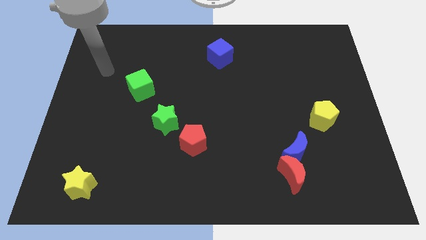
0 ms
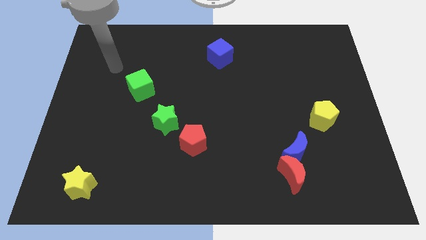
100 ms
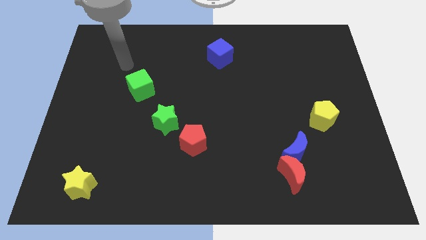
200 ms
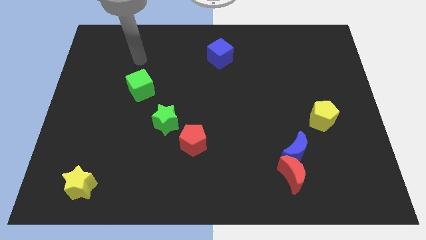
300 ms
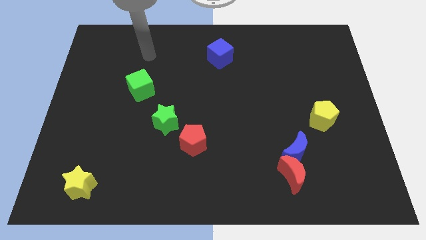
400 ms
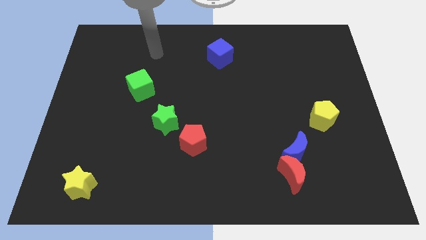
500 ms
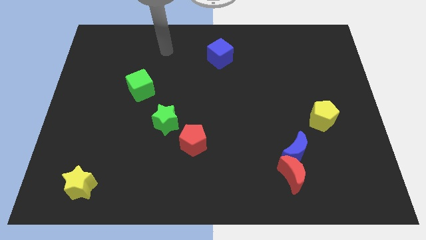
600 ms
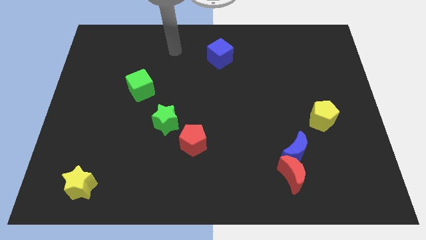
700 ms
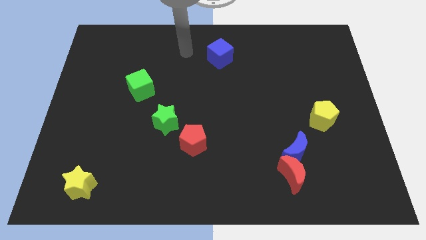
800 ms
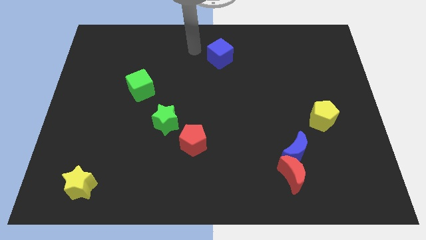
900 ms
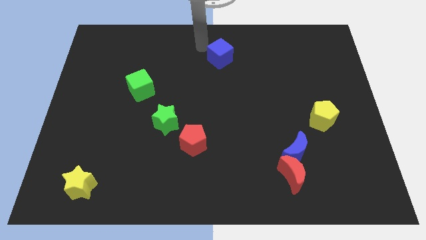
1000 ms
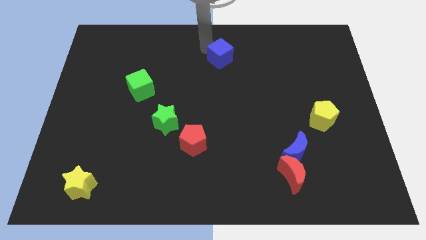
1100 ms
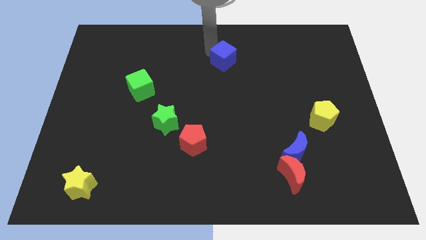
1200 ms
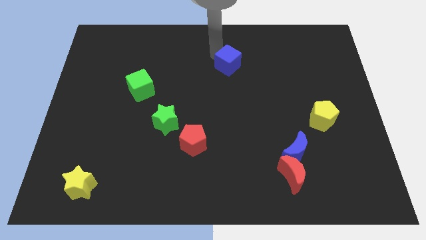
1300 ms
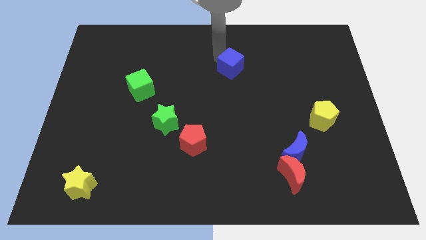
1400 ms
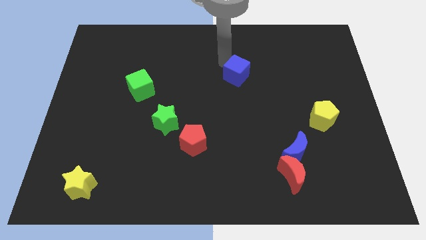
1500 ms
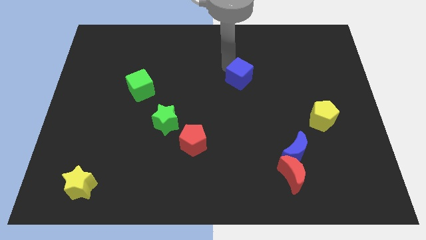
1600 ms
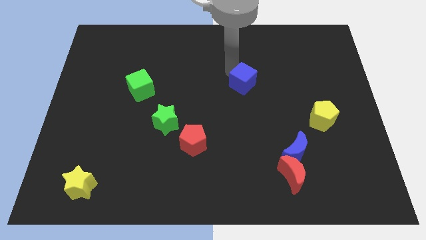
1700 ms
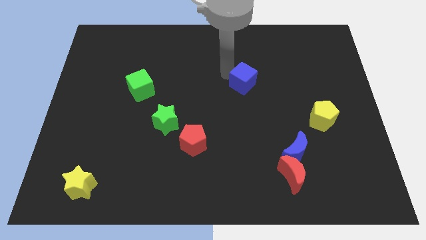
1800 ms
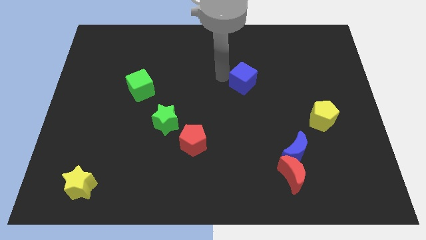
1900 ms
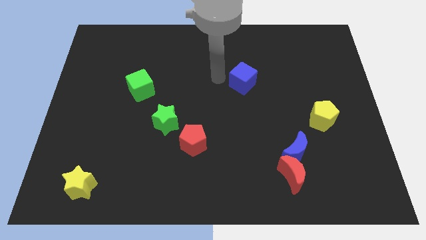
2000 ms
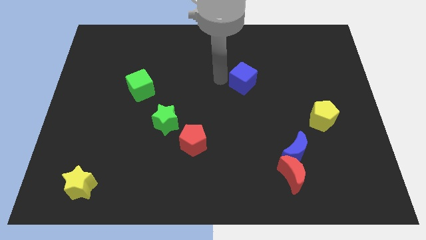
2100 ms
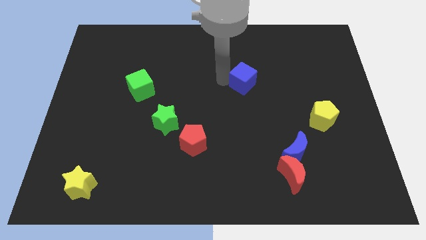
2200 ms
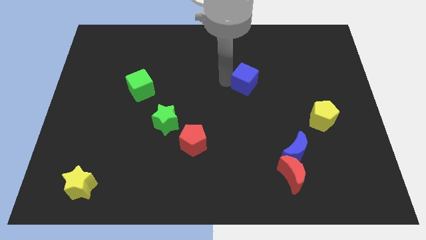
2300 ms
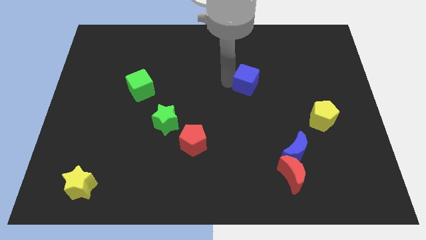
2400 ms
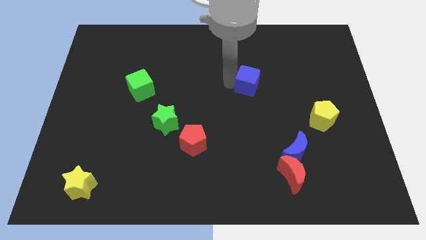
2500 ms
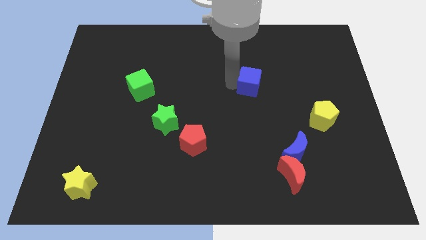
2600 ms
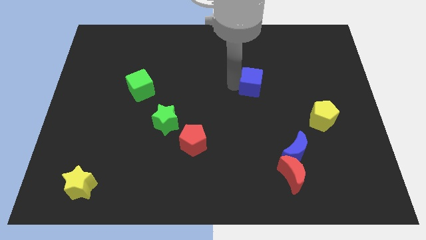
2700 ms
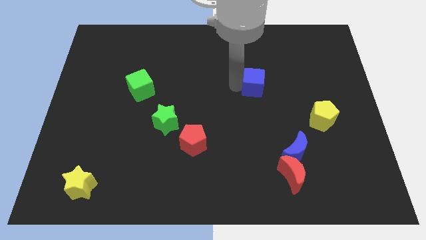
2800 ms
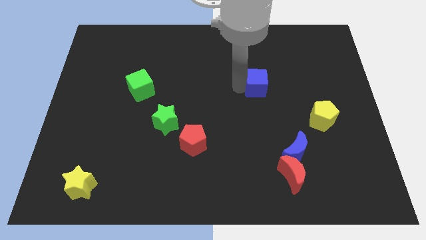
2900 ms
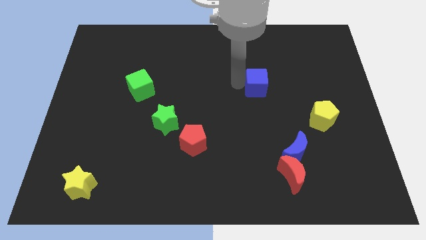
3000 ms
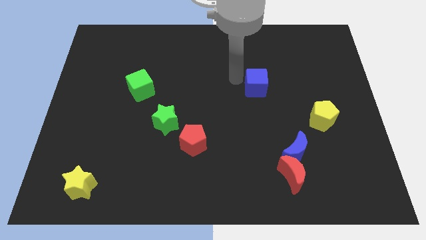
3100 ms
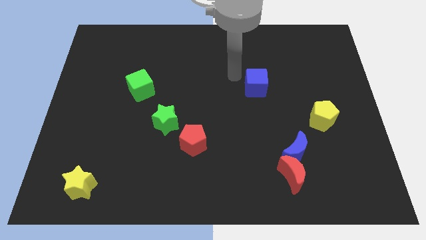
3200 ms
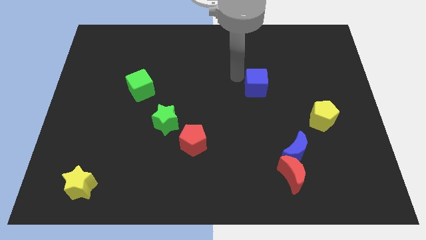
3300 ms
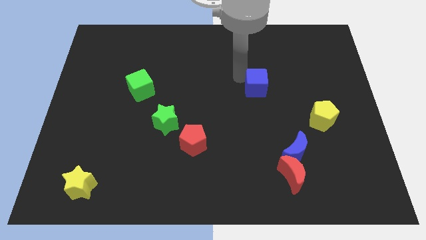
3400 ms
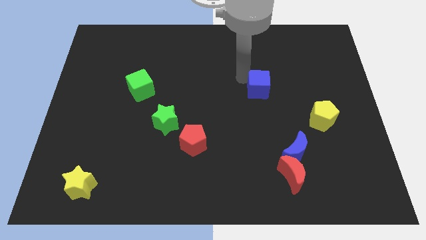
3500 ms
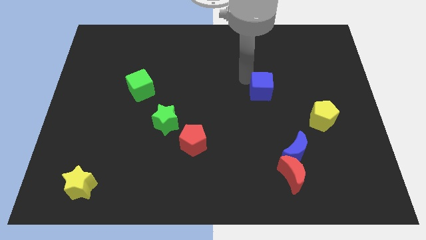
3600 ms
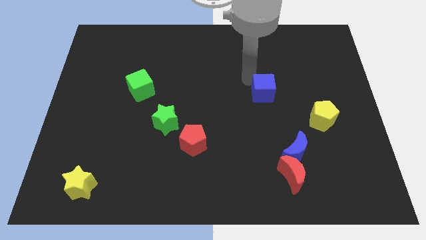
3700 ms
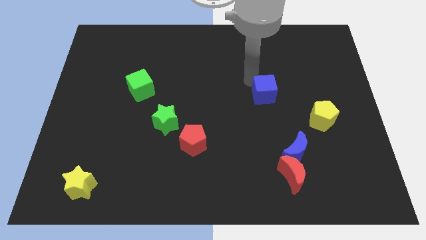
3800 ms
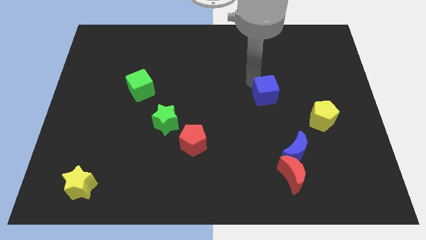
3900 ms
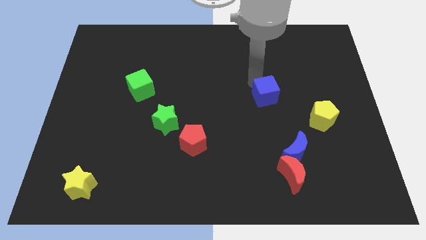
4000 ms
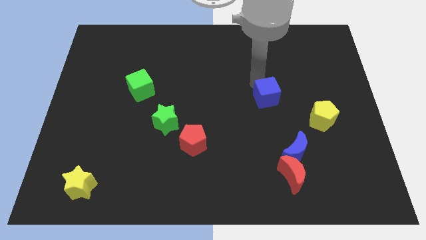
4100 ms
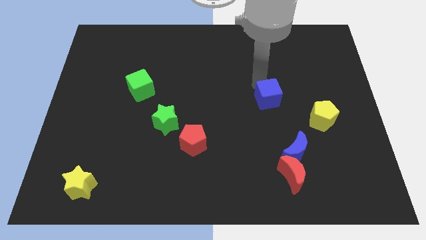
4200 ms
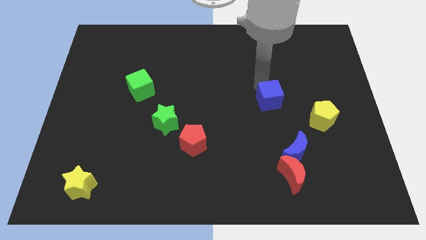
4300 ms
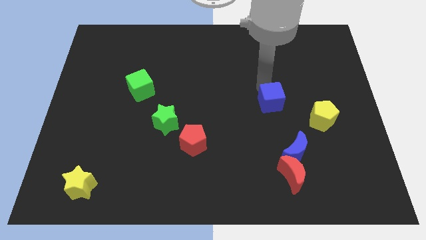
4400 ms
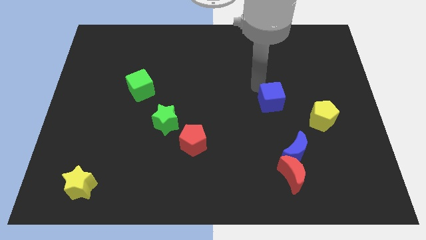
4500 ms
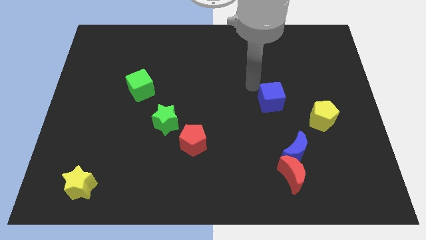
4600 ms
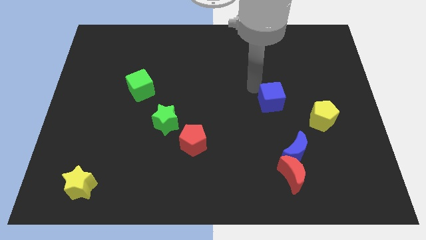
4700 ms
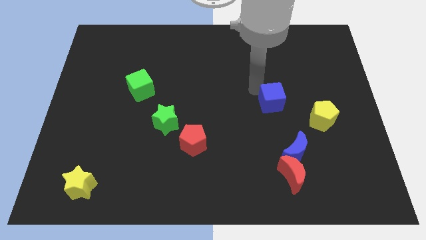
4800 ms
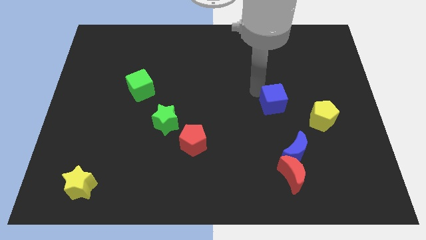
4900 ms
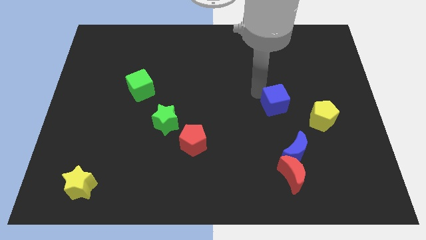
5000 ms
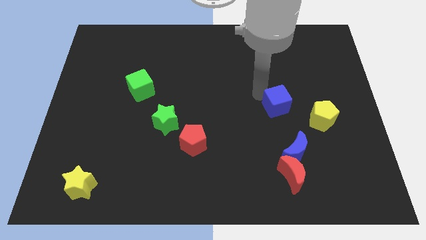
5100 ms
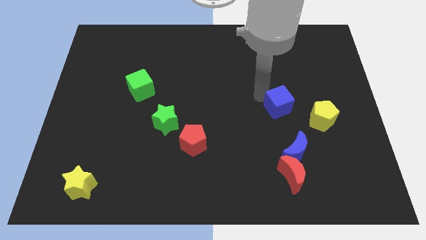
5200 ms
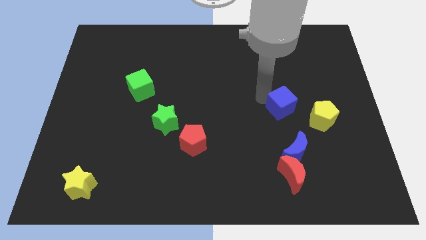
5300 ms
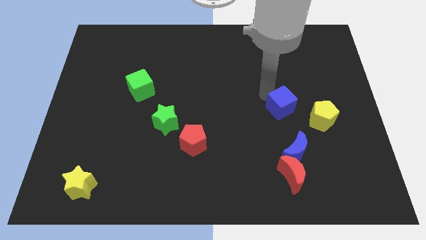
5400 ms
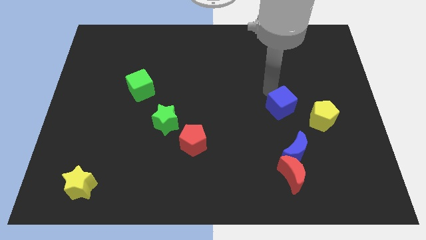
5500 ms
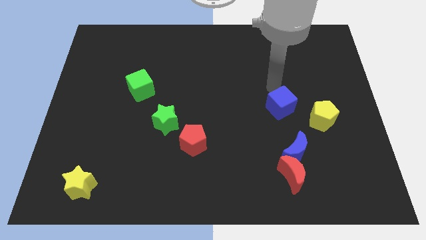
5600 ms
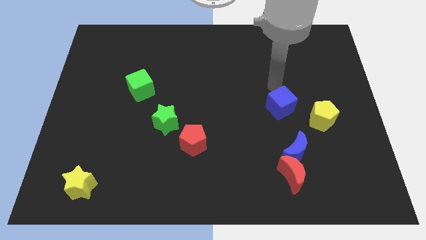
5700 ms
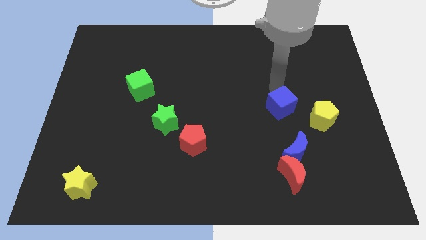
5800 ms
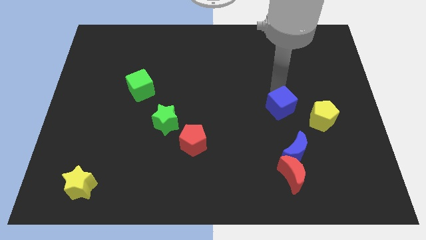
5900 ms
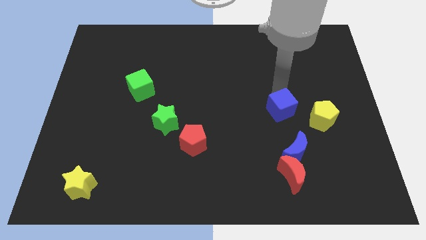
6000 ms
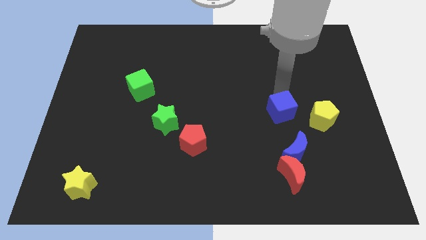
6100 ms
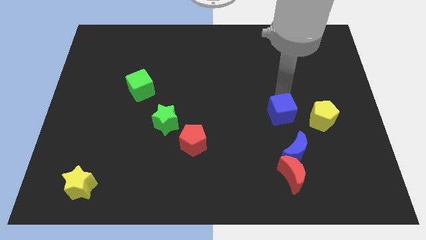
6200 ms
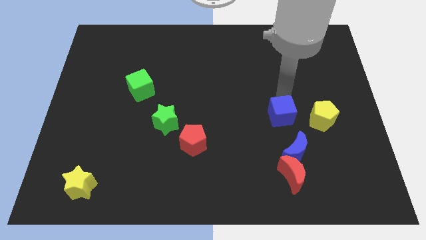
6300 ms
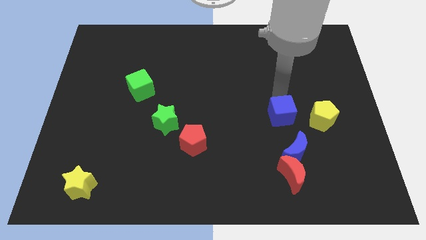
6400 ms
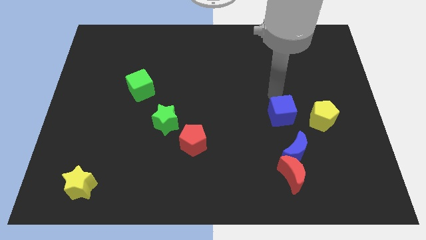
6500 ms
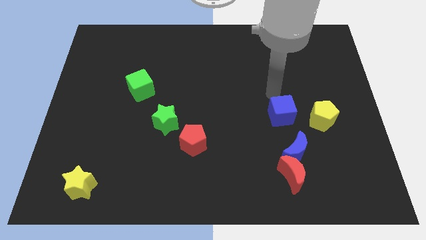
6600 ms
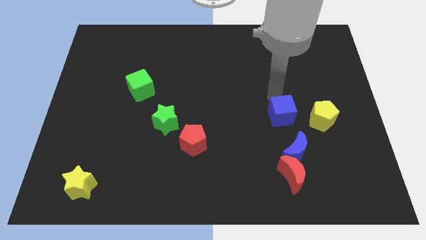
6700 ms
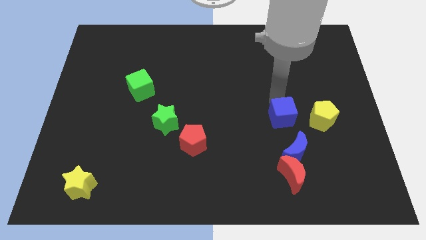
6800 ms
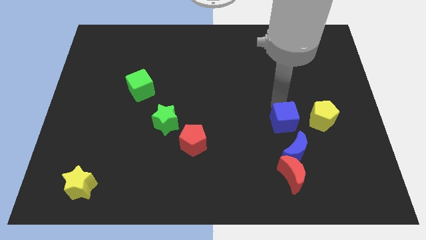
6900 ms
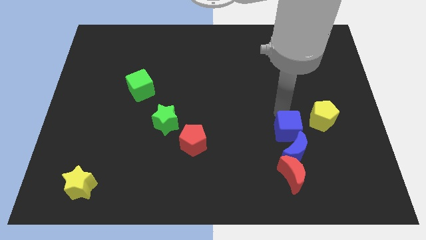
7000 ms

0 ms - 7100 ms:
put the blue cube close to the blue moon
